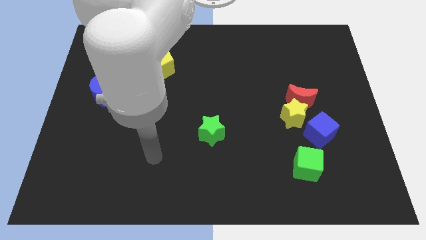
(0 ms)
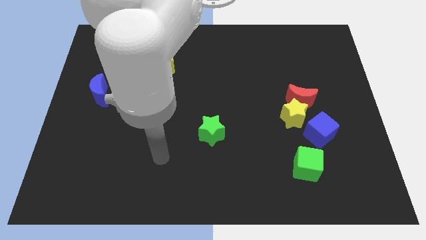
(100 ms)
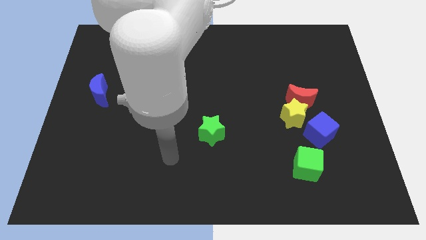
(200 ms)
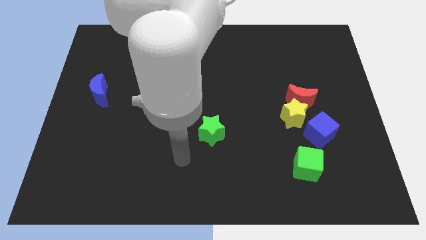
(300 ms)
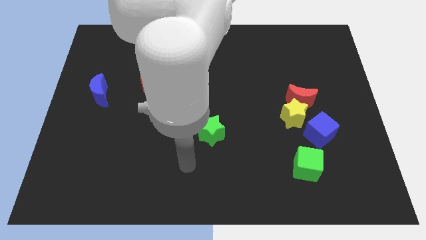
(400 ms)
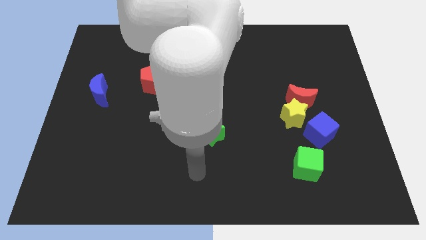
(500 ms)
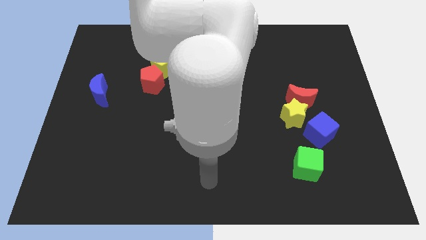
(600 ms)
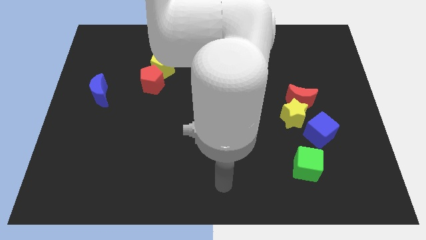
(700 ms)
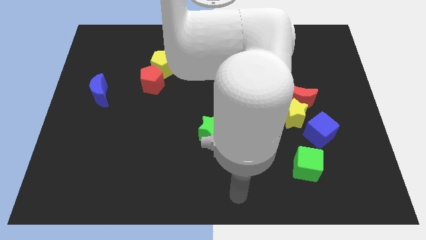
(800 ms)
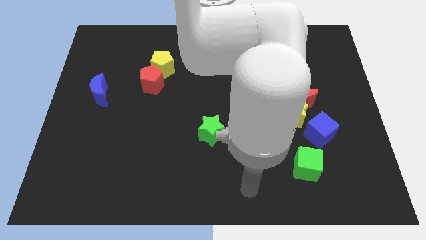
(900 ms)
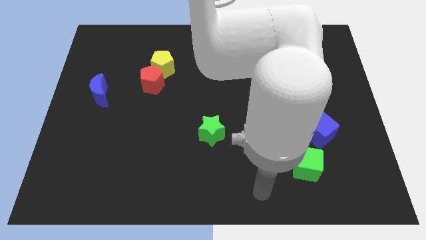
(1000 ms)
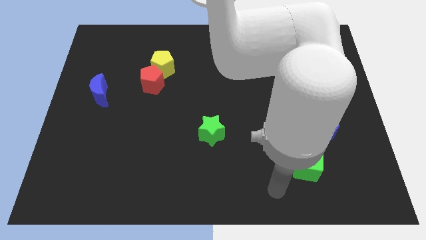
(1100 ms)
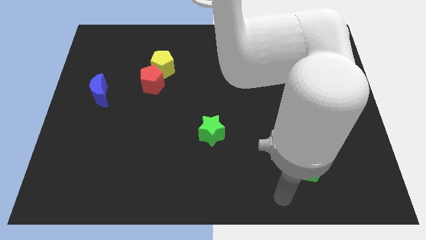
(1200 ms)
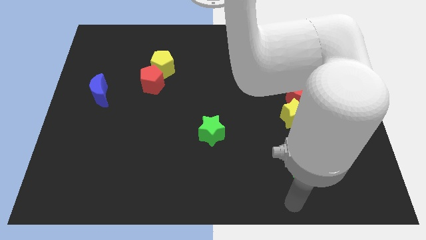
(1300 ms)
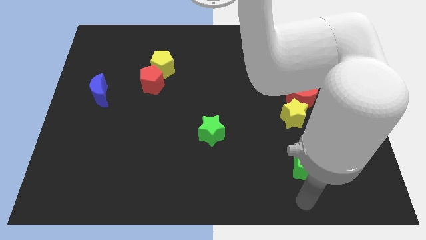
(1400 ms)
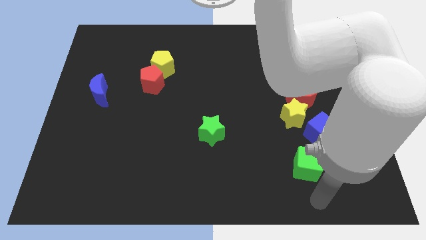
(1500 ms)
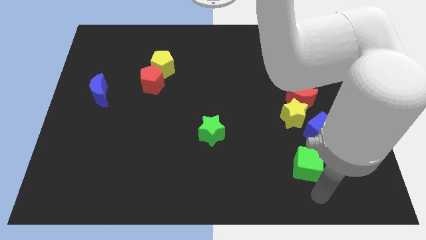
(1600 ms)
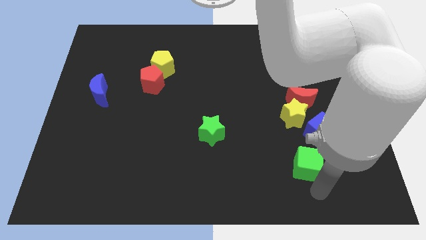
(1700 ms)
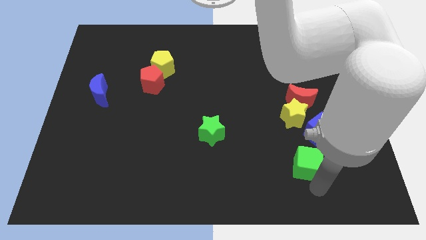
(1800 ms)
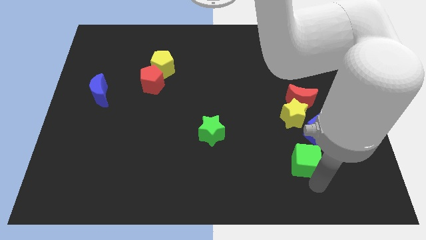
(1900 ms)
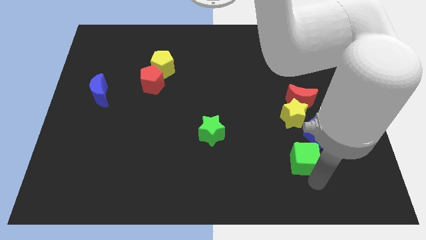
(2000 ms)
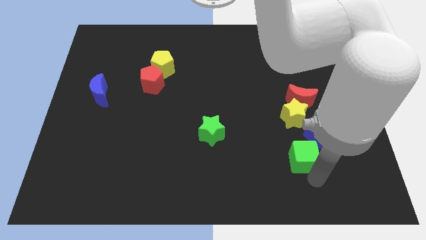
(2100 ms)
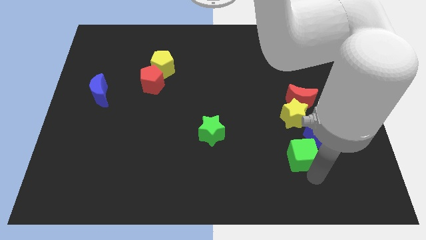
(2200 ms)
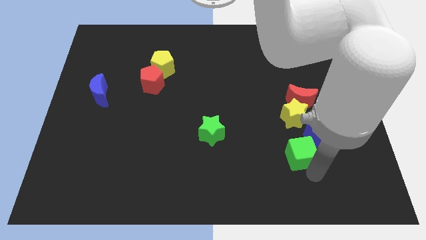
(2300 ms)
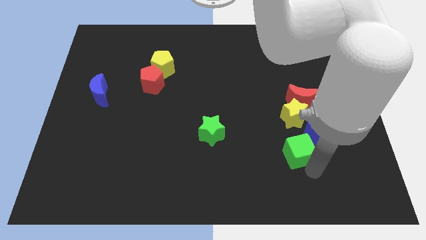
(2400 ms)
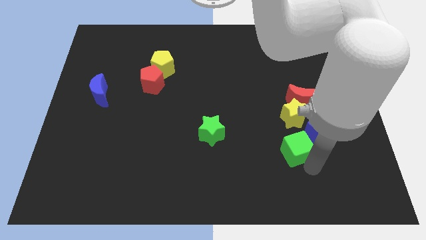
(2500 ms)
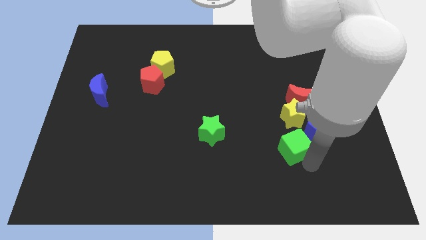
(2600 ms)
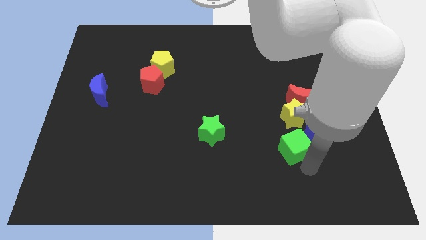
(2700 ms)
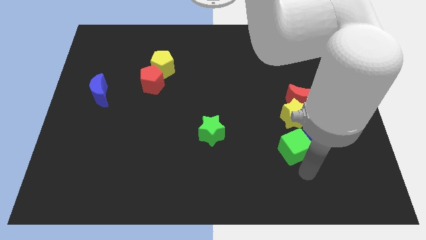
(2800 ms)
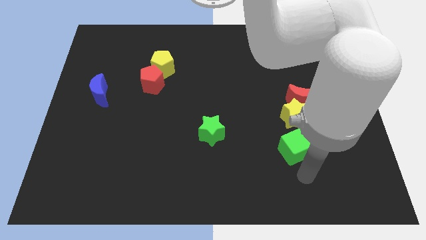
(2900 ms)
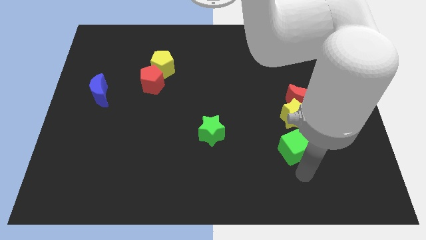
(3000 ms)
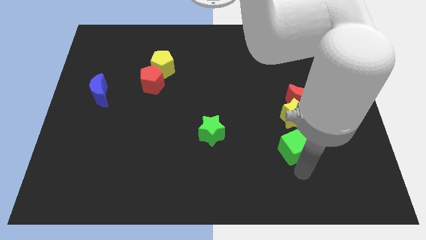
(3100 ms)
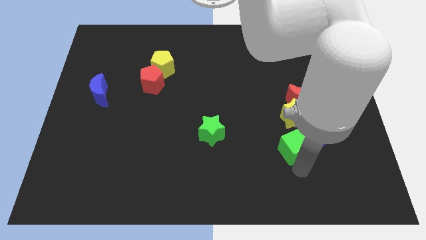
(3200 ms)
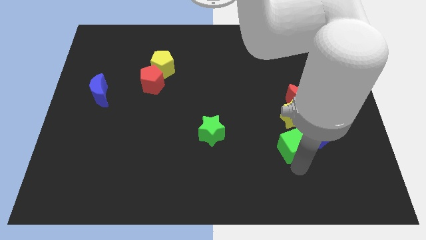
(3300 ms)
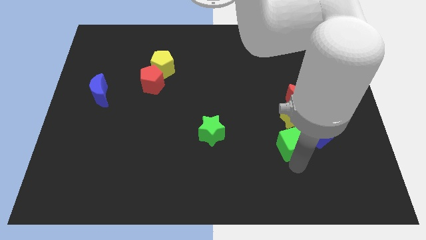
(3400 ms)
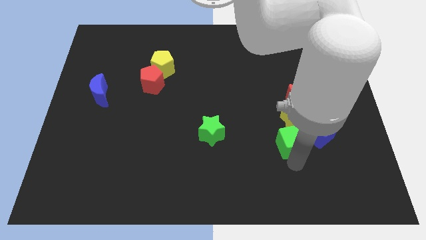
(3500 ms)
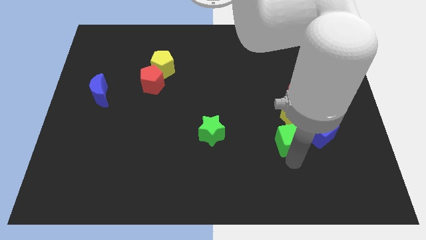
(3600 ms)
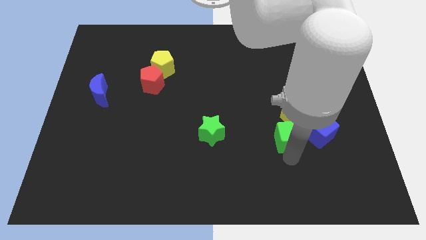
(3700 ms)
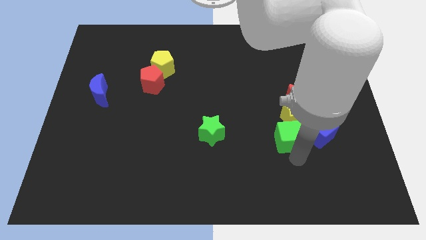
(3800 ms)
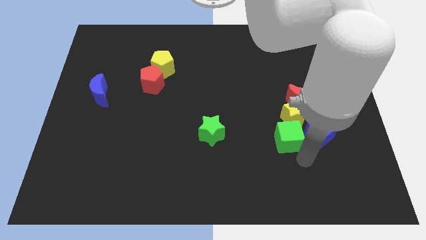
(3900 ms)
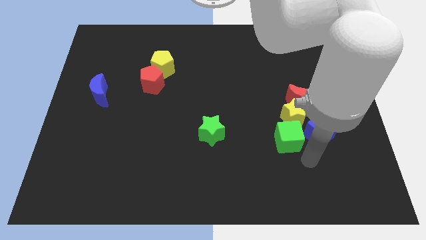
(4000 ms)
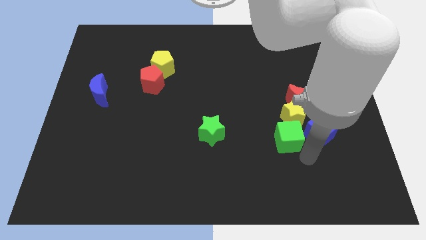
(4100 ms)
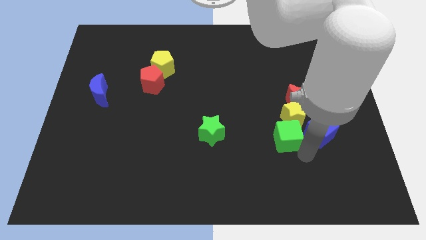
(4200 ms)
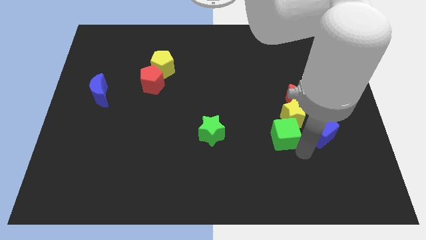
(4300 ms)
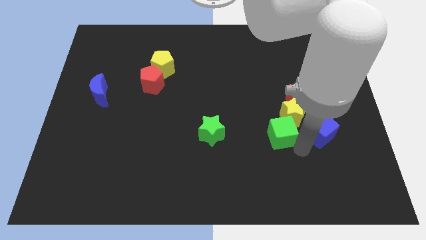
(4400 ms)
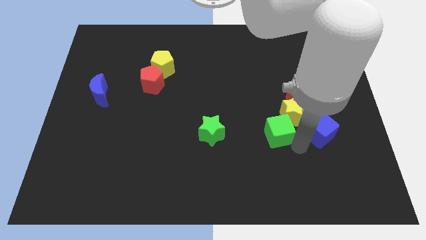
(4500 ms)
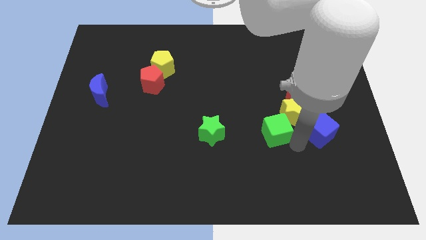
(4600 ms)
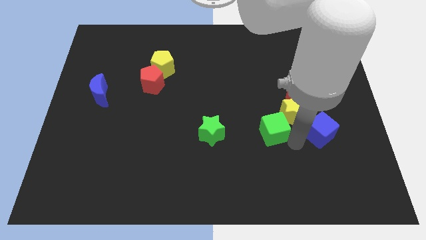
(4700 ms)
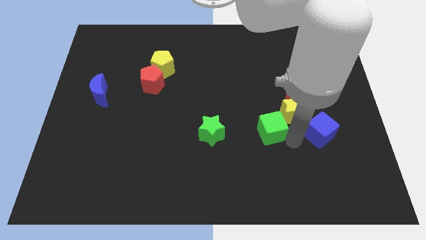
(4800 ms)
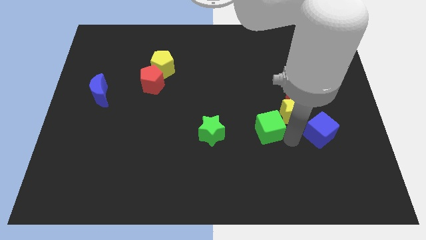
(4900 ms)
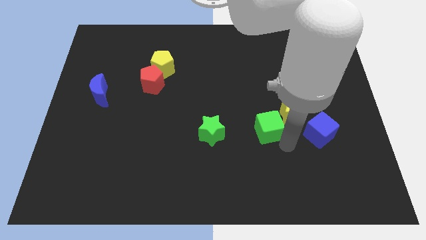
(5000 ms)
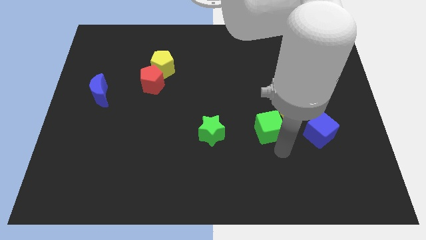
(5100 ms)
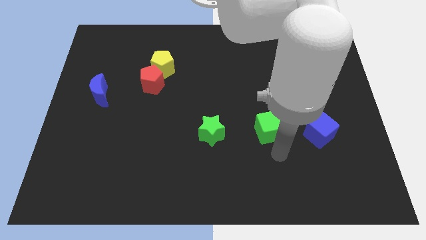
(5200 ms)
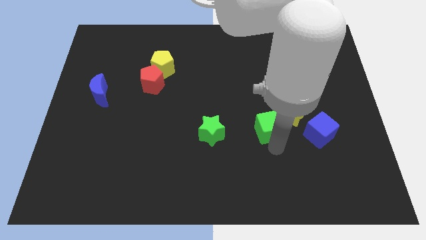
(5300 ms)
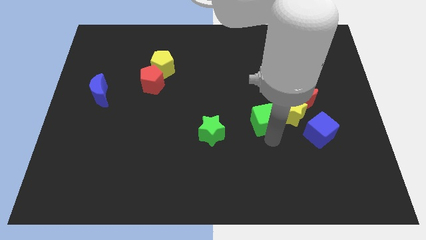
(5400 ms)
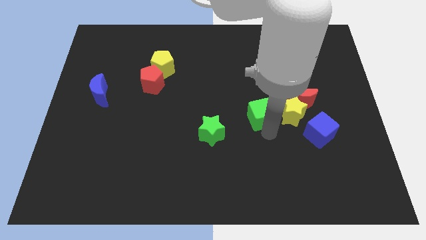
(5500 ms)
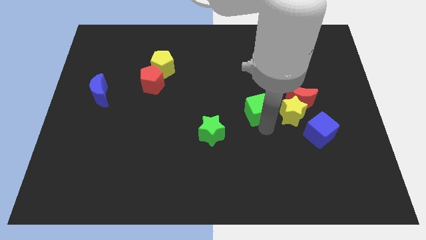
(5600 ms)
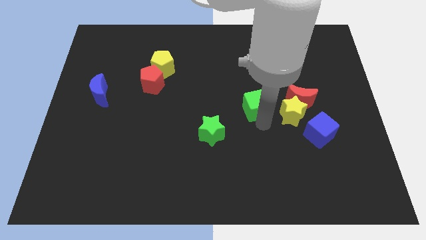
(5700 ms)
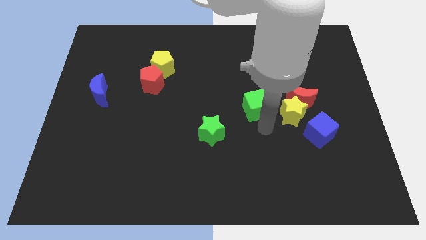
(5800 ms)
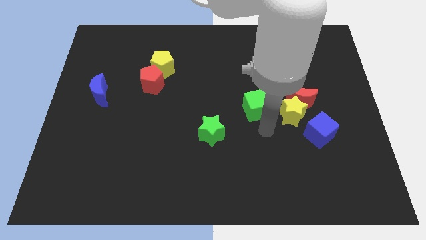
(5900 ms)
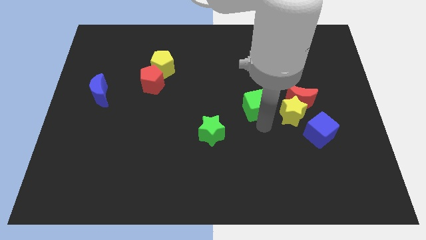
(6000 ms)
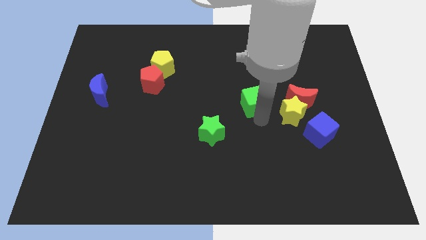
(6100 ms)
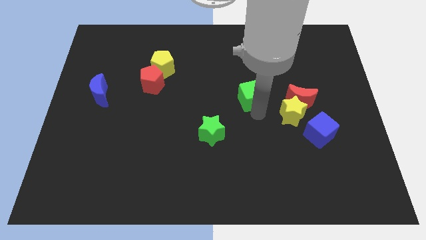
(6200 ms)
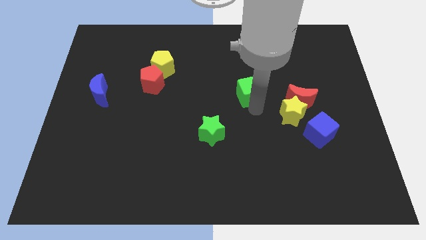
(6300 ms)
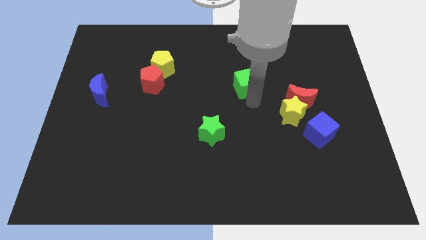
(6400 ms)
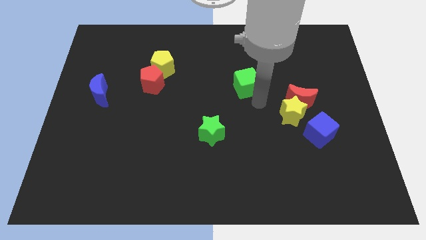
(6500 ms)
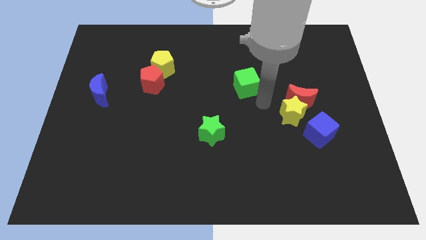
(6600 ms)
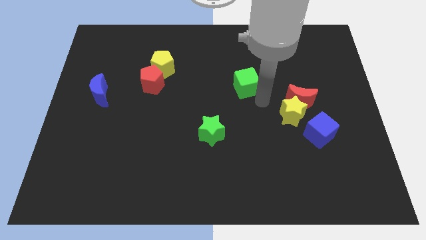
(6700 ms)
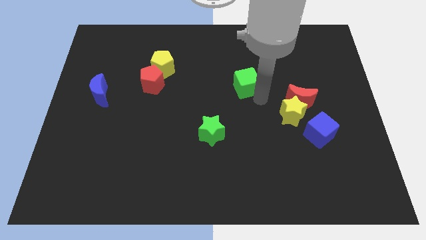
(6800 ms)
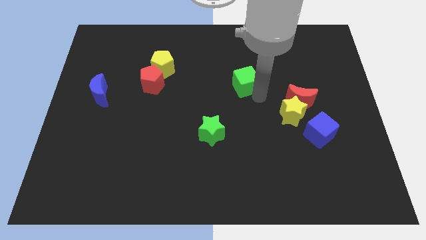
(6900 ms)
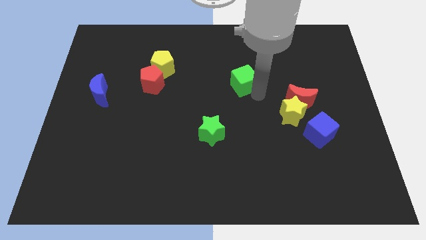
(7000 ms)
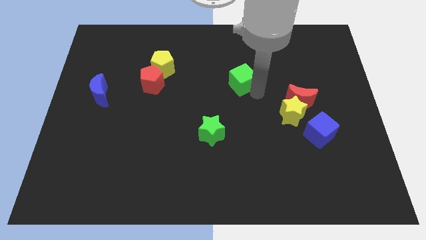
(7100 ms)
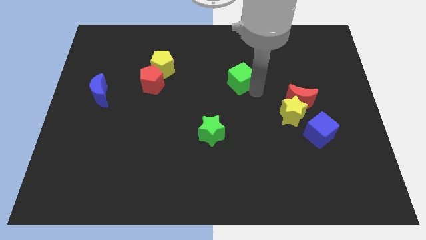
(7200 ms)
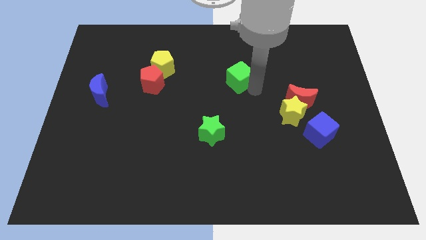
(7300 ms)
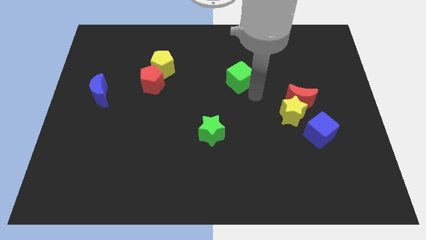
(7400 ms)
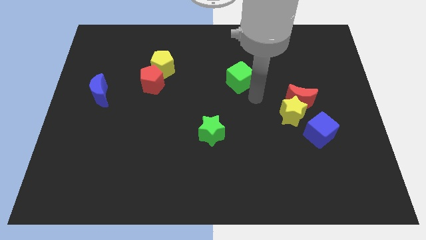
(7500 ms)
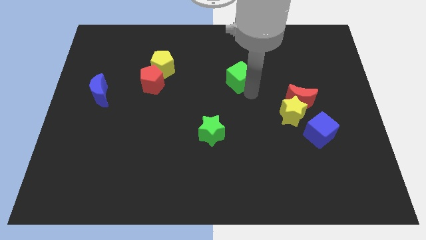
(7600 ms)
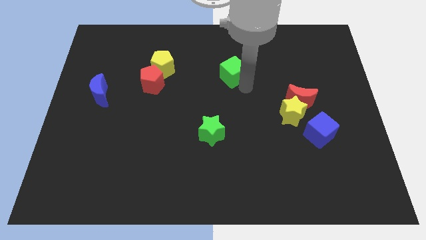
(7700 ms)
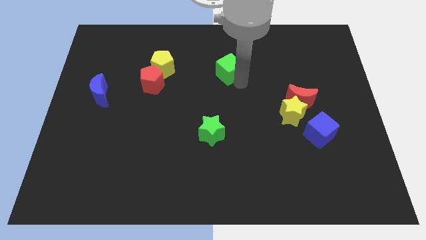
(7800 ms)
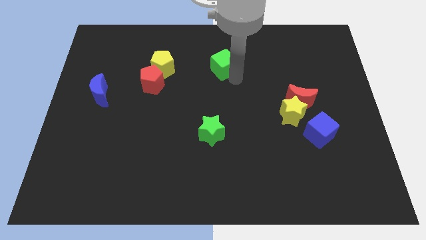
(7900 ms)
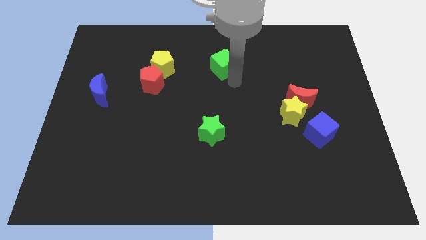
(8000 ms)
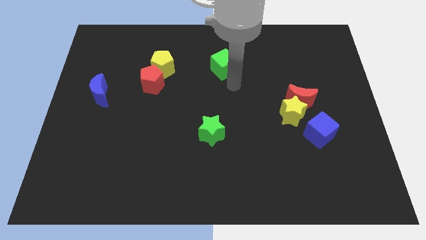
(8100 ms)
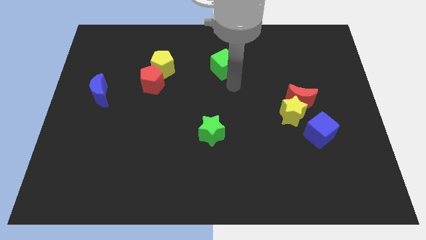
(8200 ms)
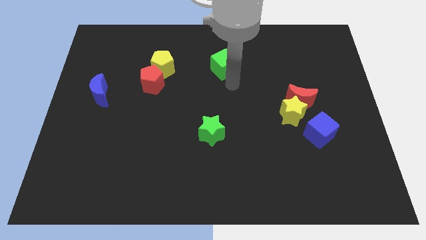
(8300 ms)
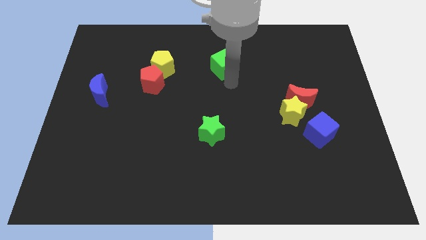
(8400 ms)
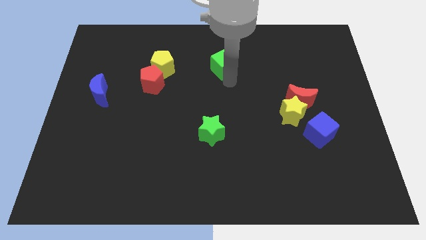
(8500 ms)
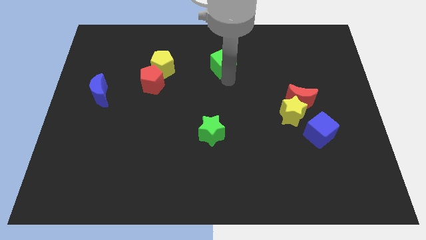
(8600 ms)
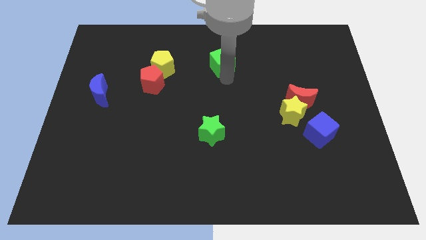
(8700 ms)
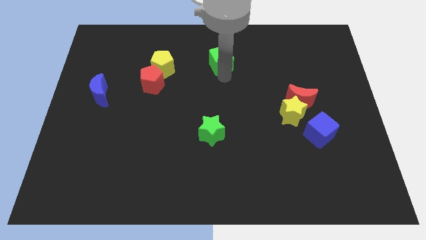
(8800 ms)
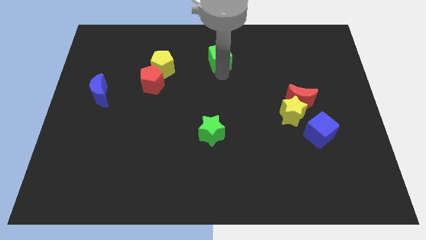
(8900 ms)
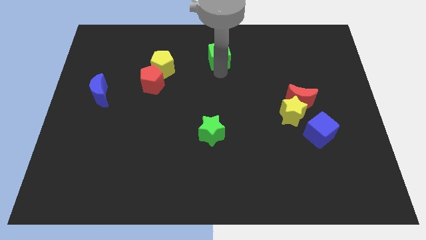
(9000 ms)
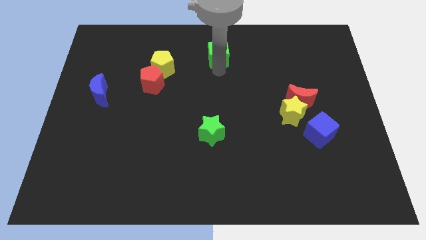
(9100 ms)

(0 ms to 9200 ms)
put the green cube to the top
